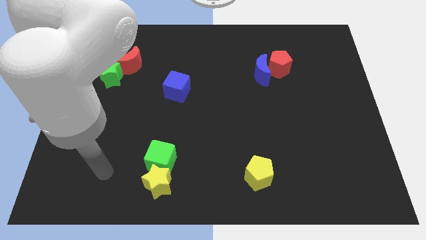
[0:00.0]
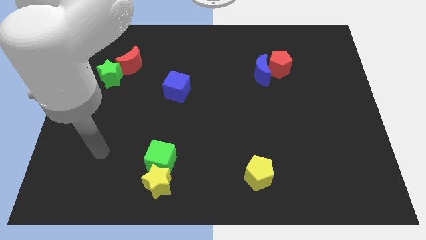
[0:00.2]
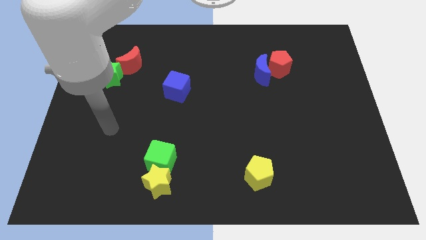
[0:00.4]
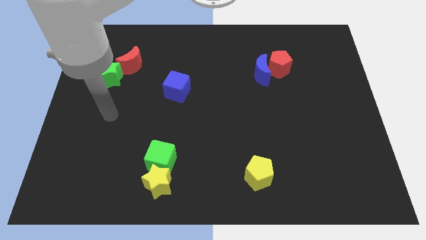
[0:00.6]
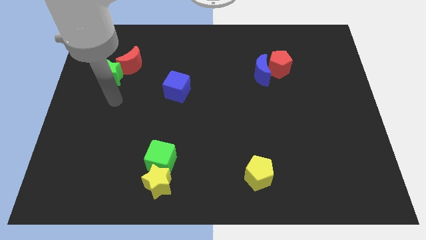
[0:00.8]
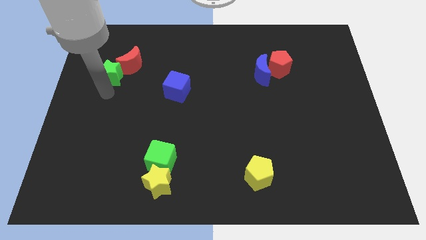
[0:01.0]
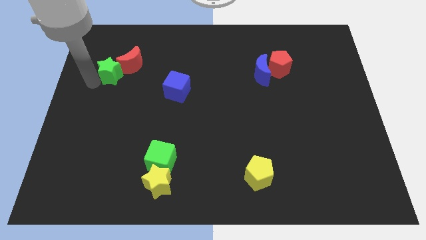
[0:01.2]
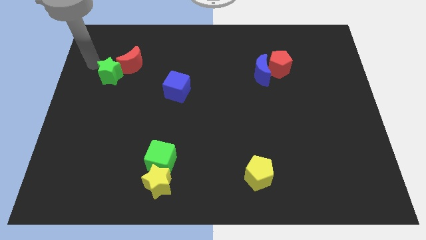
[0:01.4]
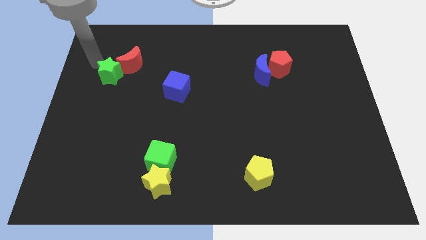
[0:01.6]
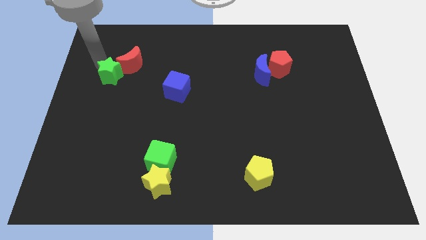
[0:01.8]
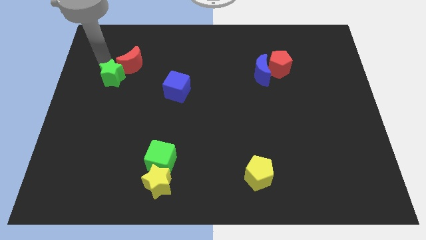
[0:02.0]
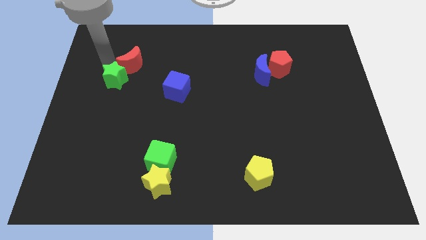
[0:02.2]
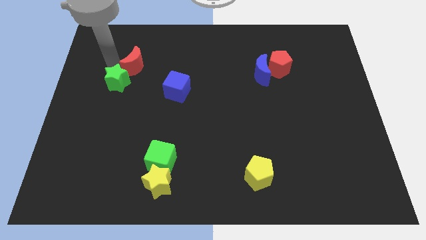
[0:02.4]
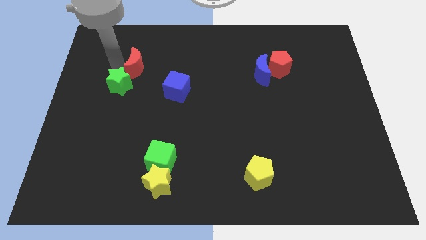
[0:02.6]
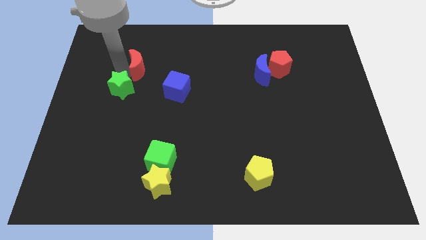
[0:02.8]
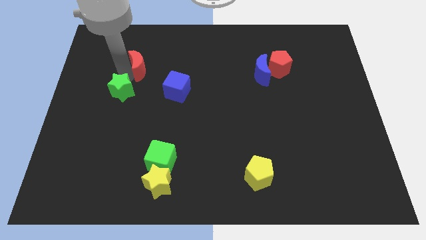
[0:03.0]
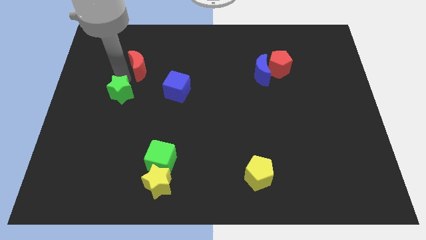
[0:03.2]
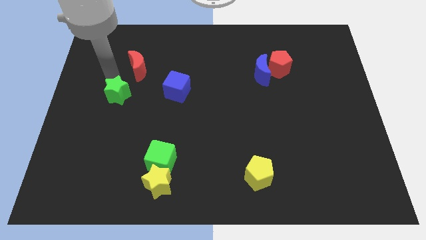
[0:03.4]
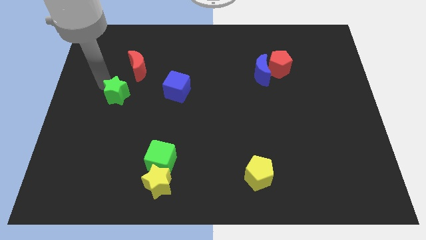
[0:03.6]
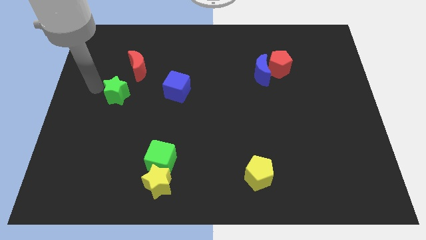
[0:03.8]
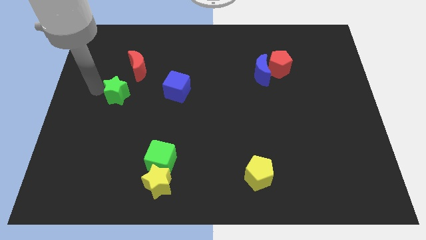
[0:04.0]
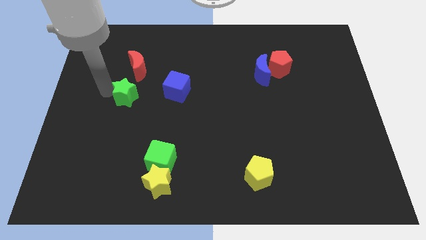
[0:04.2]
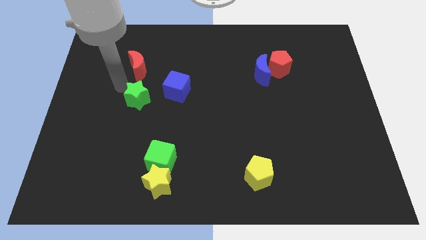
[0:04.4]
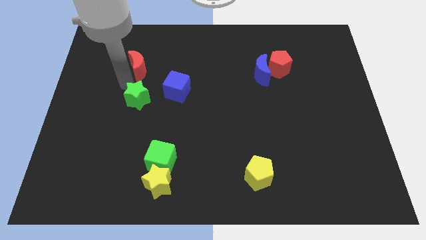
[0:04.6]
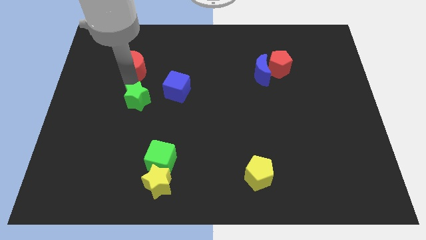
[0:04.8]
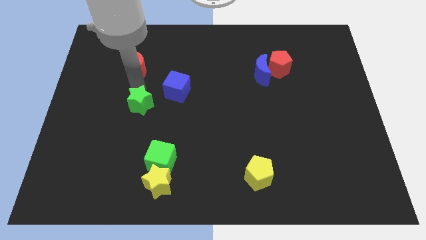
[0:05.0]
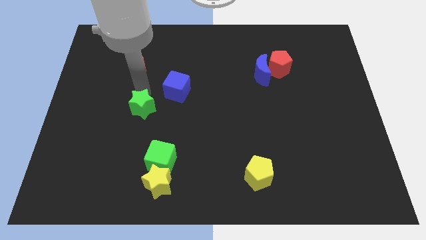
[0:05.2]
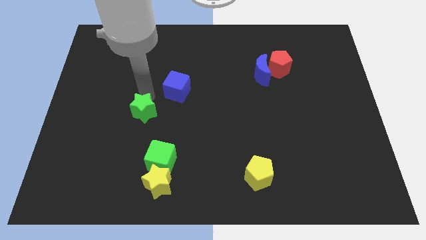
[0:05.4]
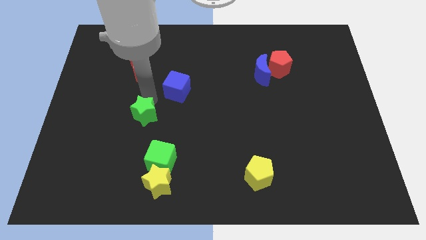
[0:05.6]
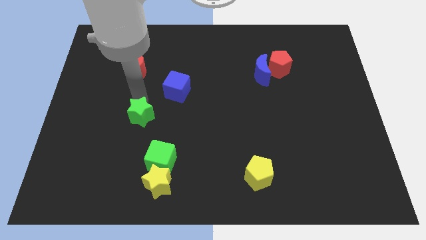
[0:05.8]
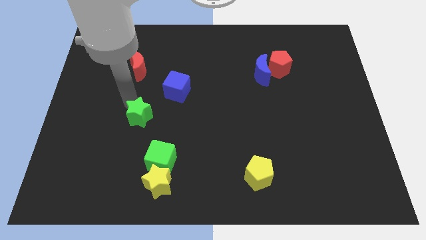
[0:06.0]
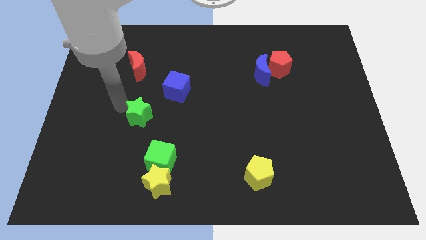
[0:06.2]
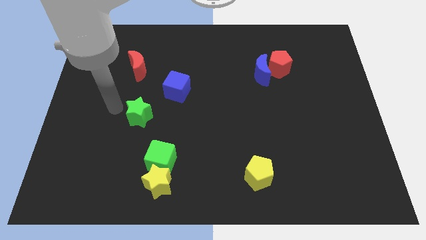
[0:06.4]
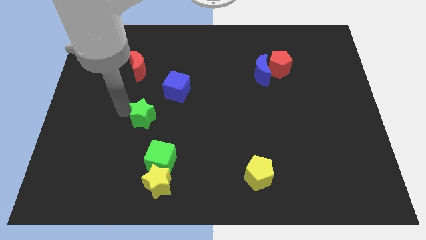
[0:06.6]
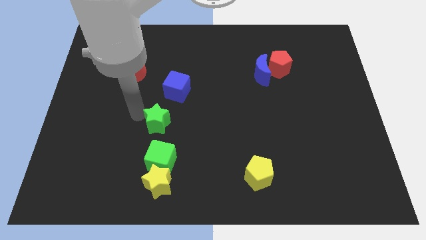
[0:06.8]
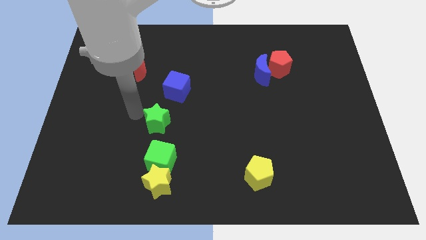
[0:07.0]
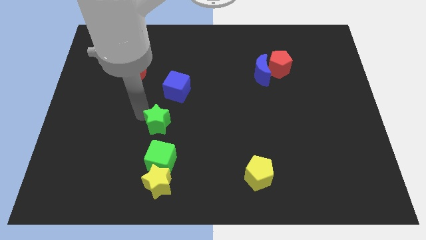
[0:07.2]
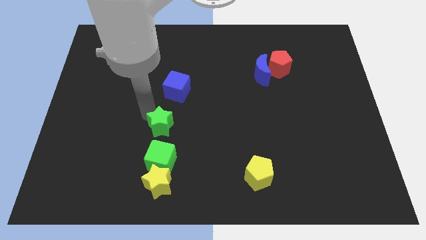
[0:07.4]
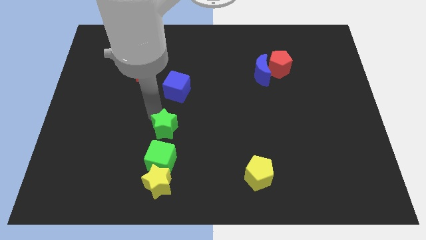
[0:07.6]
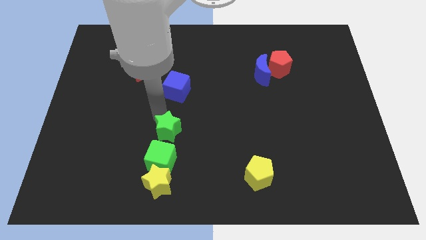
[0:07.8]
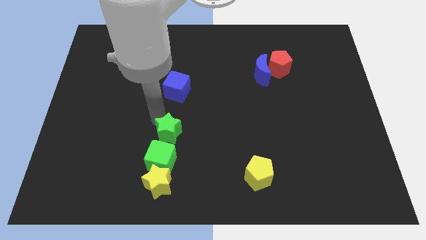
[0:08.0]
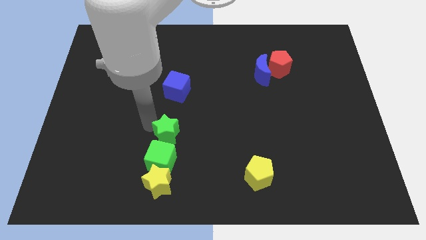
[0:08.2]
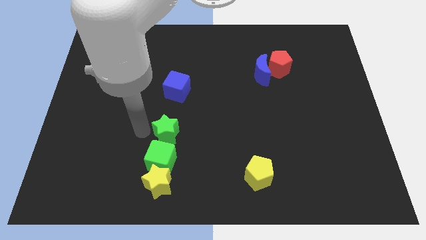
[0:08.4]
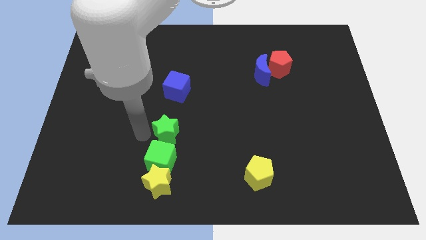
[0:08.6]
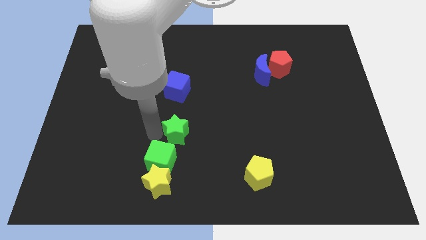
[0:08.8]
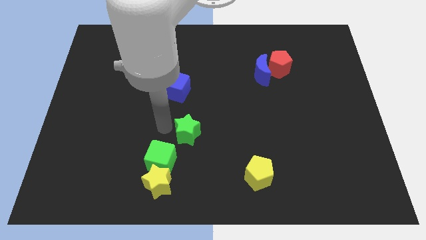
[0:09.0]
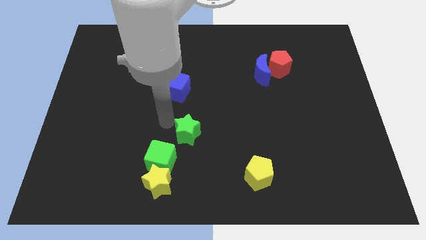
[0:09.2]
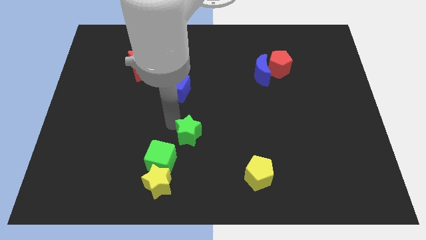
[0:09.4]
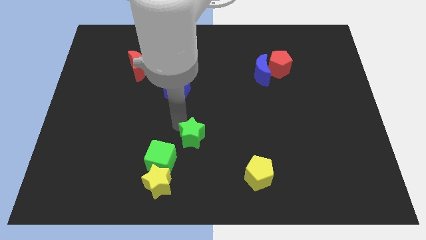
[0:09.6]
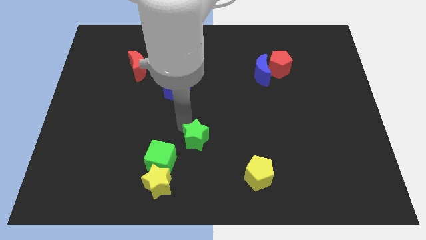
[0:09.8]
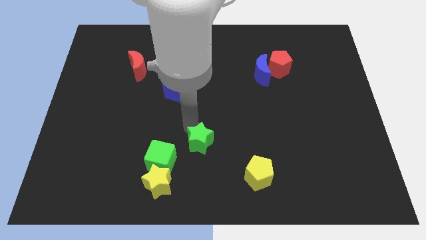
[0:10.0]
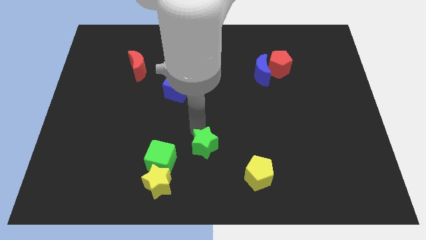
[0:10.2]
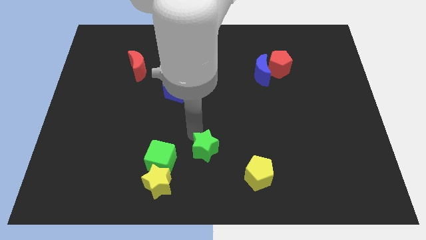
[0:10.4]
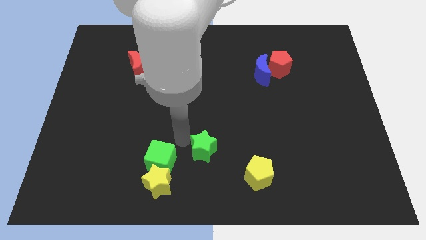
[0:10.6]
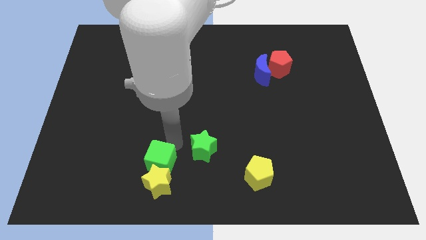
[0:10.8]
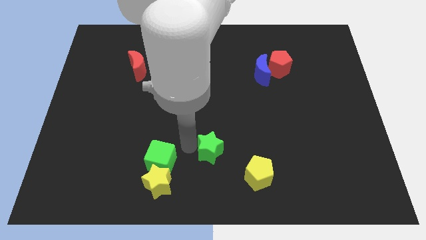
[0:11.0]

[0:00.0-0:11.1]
push the green star to the top left side of the yellow pentagon

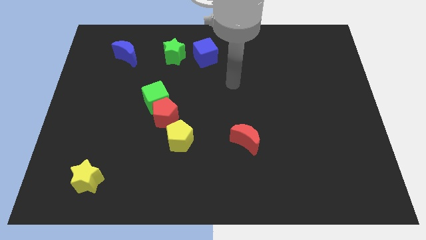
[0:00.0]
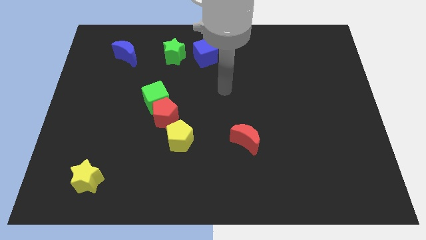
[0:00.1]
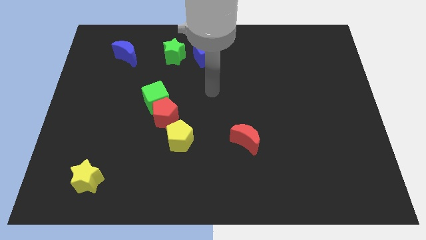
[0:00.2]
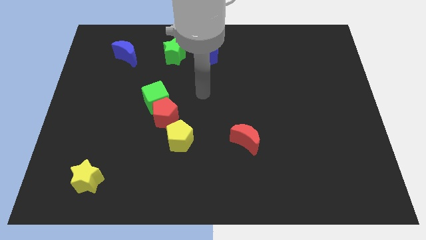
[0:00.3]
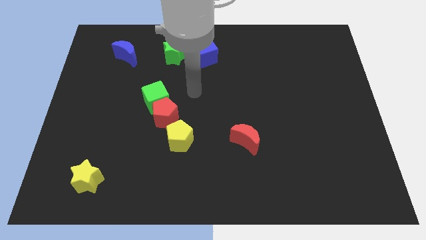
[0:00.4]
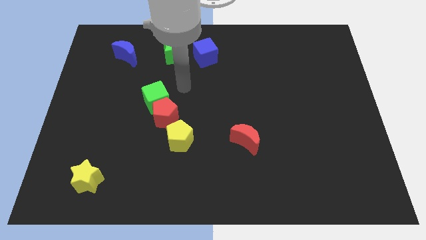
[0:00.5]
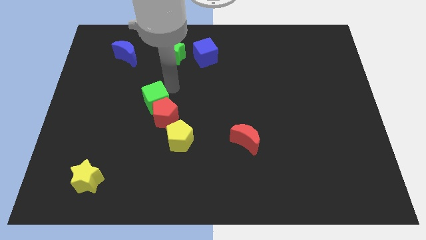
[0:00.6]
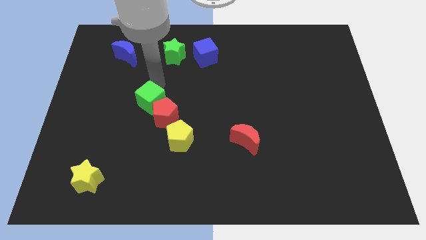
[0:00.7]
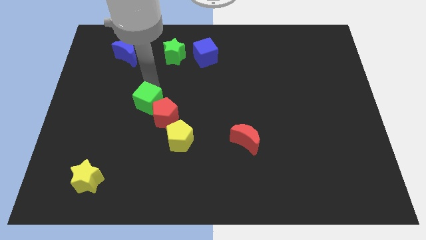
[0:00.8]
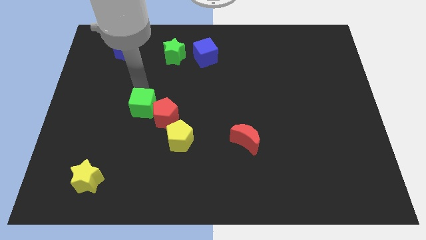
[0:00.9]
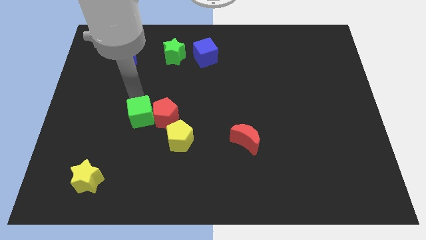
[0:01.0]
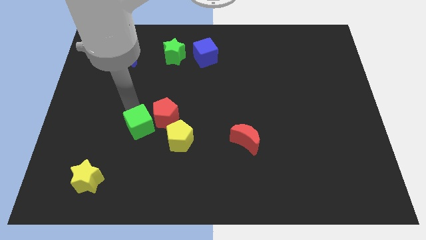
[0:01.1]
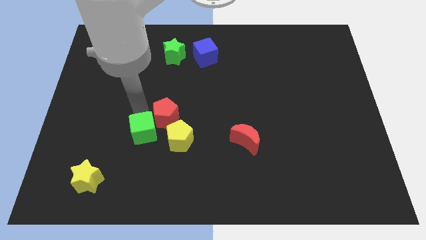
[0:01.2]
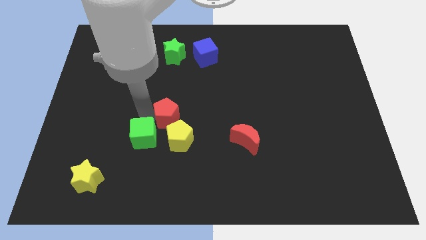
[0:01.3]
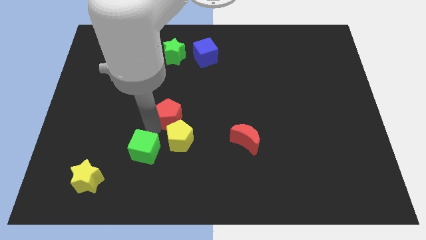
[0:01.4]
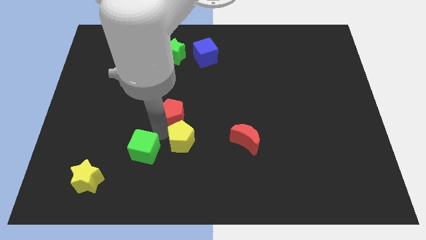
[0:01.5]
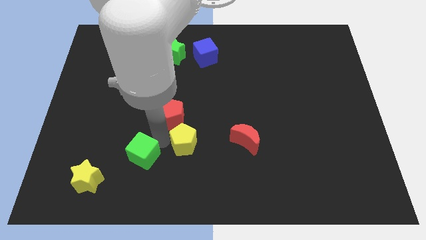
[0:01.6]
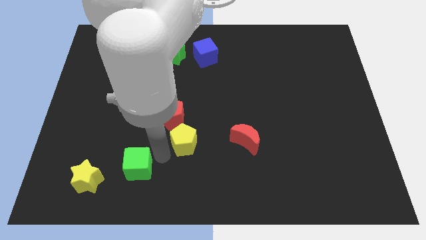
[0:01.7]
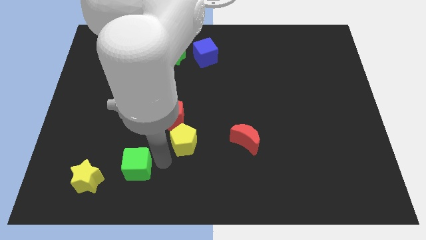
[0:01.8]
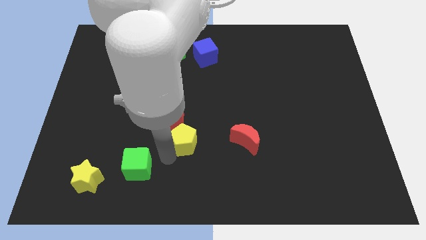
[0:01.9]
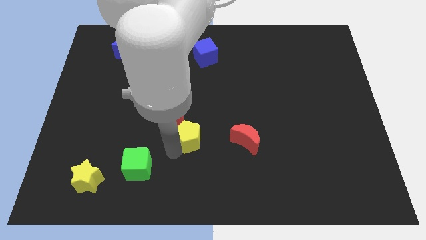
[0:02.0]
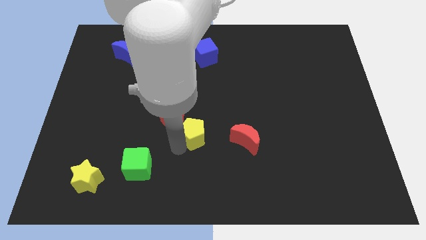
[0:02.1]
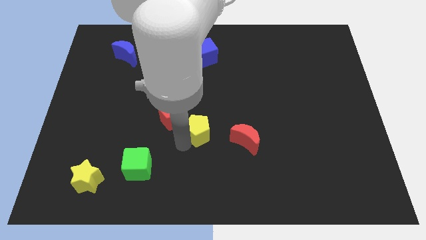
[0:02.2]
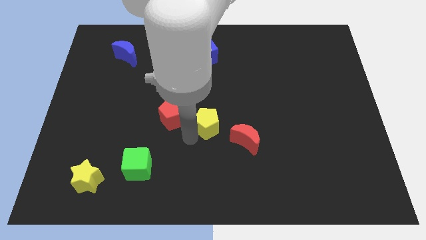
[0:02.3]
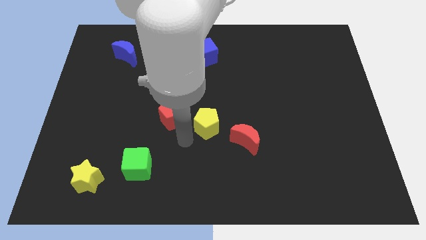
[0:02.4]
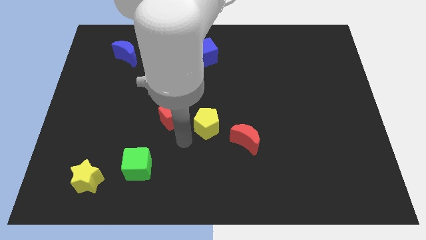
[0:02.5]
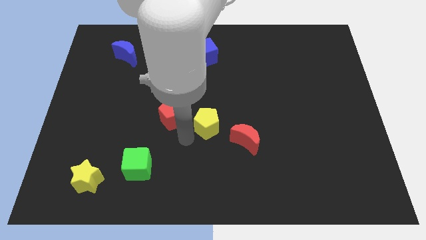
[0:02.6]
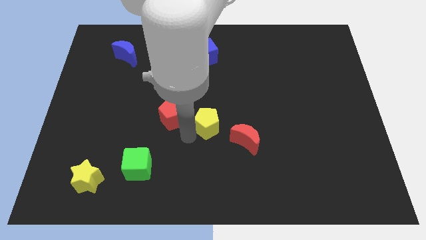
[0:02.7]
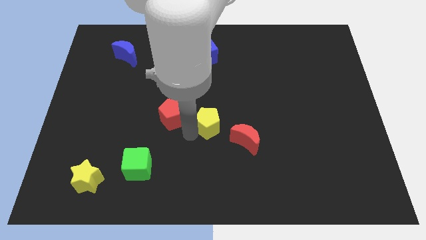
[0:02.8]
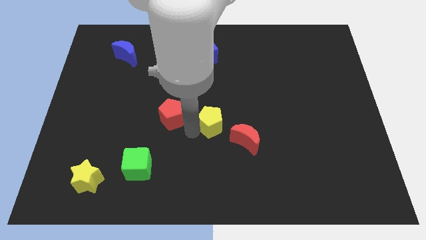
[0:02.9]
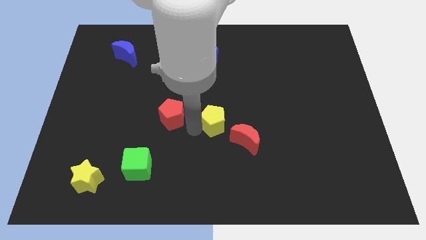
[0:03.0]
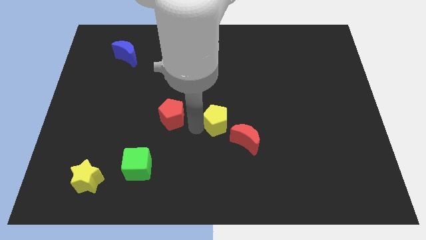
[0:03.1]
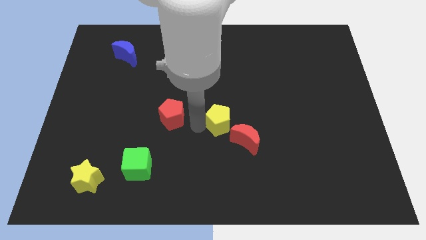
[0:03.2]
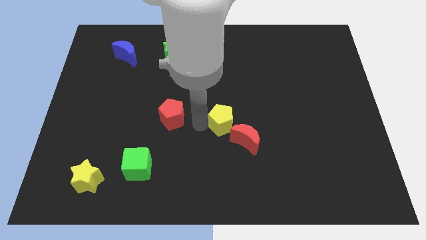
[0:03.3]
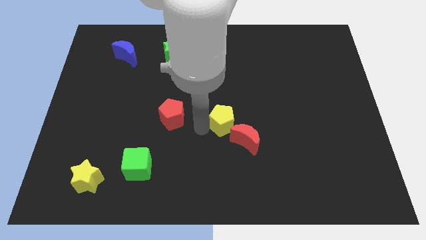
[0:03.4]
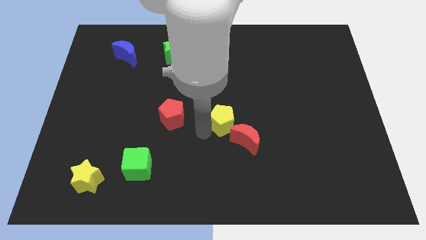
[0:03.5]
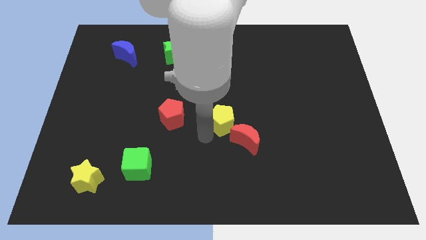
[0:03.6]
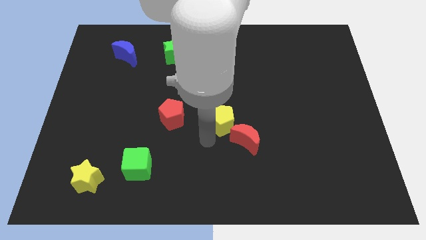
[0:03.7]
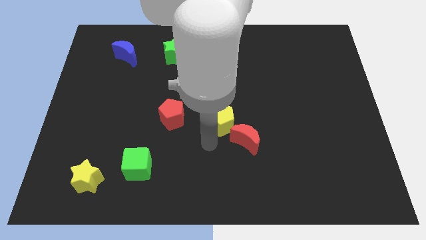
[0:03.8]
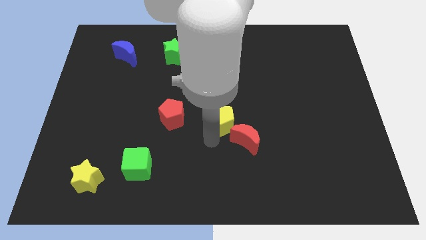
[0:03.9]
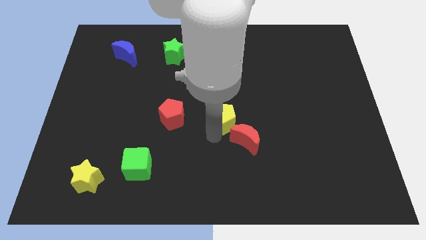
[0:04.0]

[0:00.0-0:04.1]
slide the yellow pentagon above the red moon
